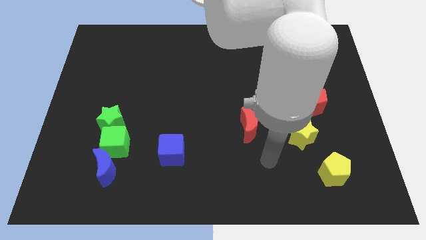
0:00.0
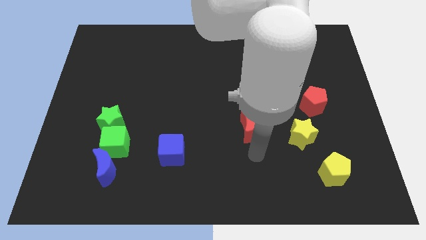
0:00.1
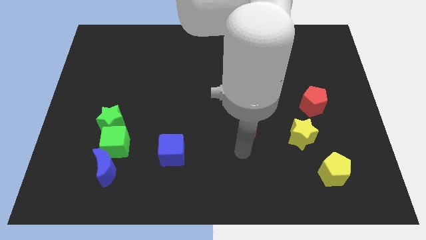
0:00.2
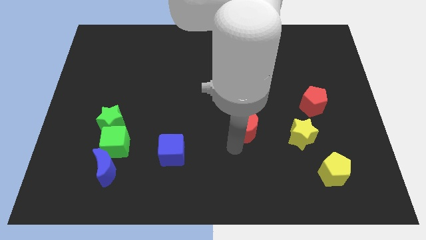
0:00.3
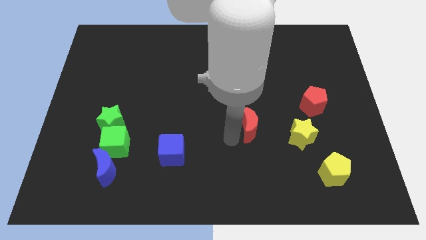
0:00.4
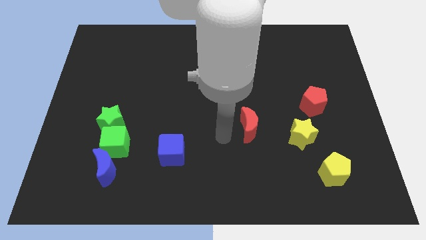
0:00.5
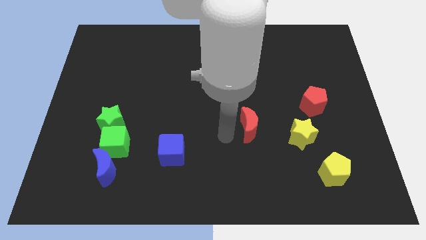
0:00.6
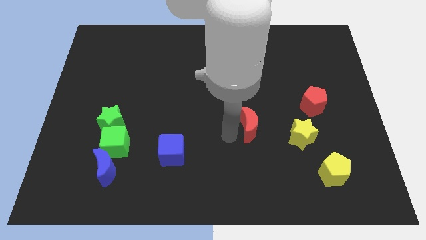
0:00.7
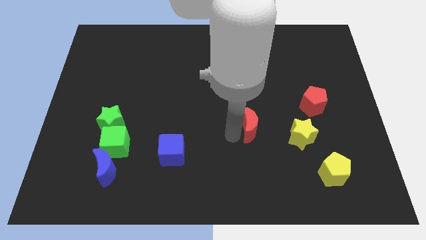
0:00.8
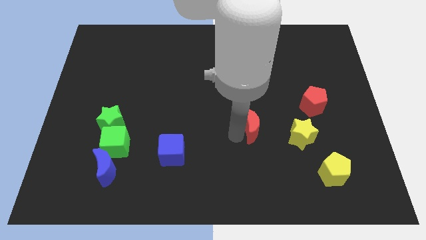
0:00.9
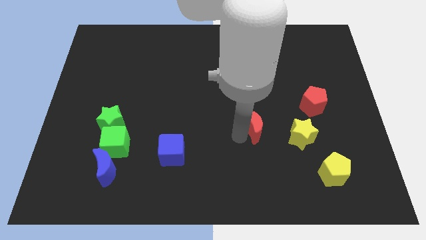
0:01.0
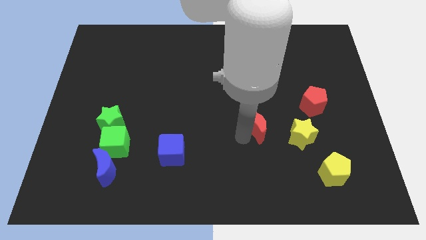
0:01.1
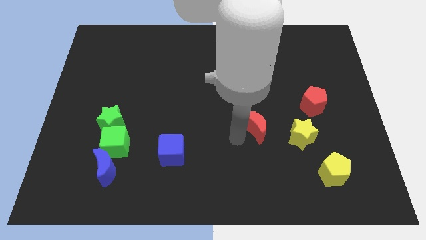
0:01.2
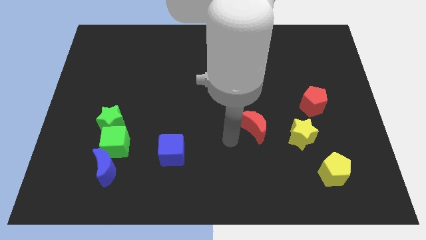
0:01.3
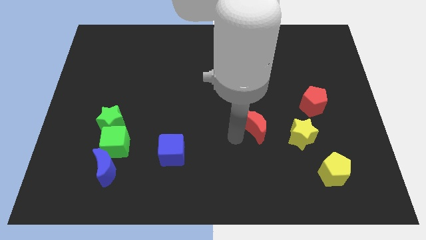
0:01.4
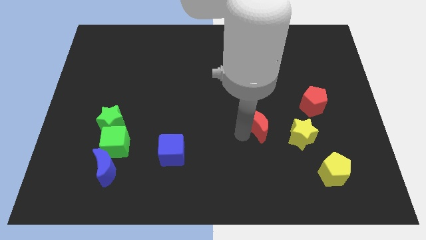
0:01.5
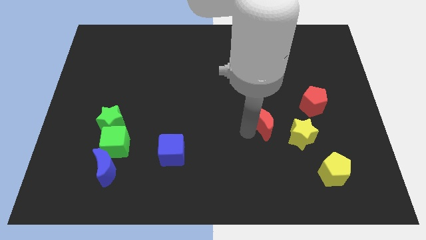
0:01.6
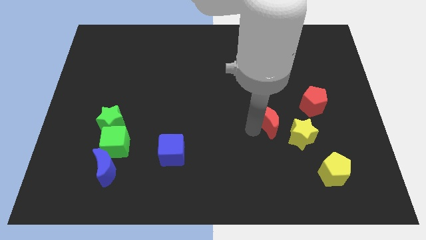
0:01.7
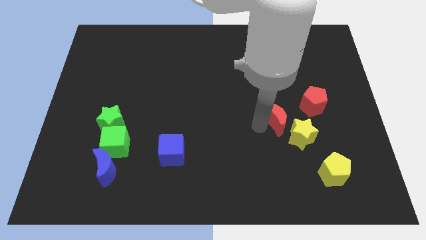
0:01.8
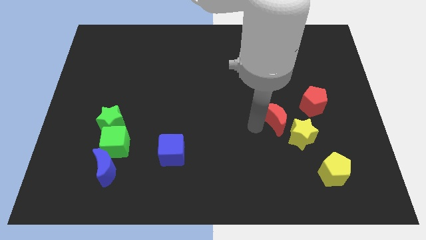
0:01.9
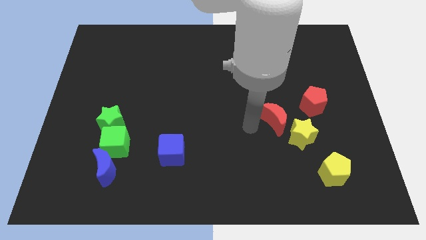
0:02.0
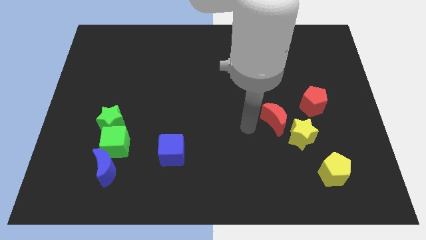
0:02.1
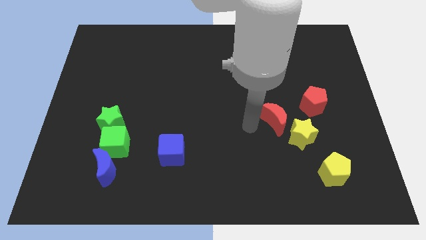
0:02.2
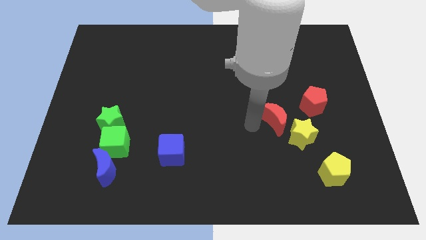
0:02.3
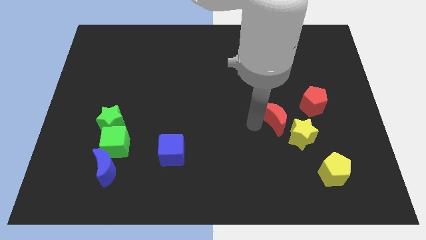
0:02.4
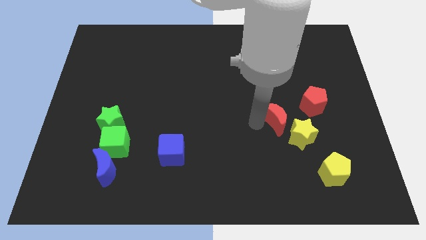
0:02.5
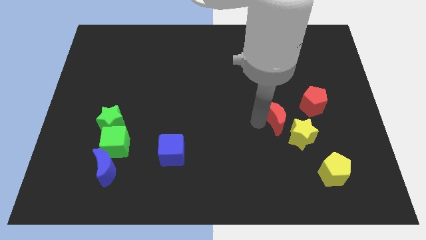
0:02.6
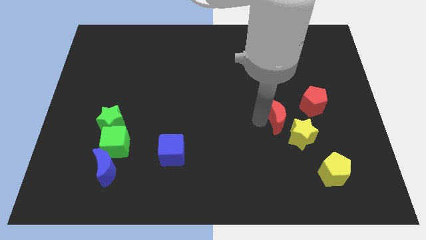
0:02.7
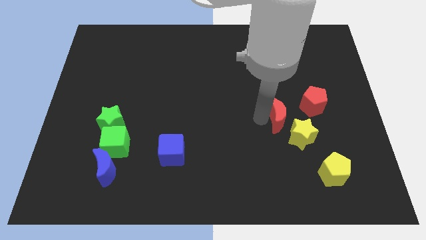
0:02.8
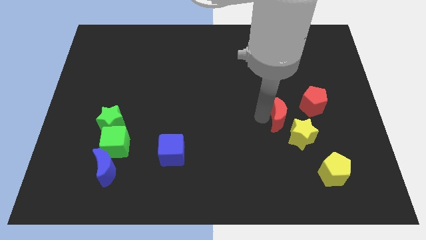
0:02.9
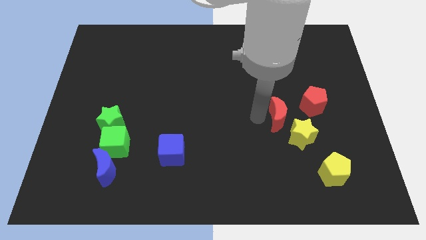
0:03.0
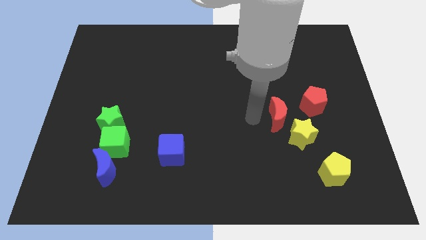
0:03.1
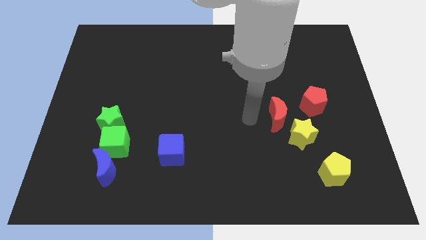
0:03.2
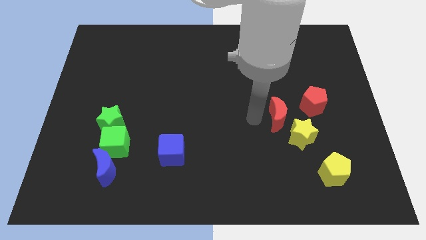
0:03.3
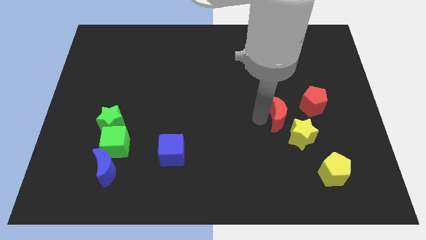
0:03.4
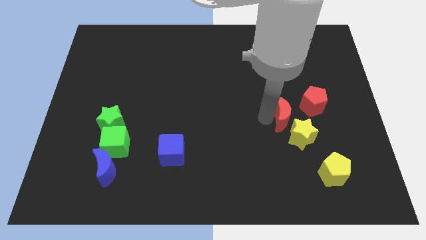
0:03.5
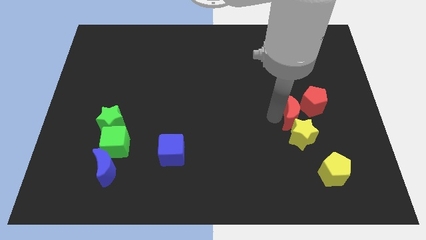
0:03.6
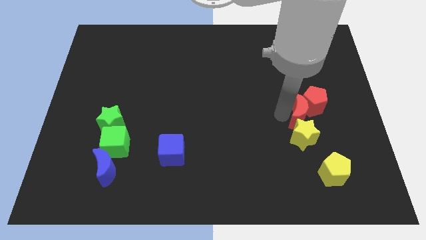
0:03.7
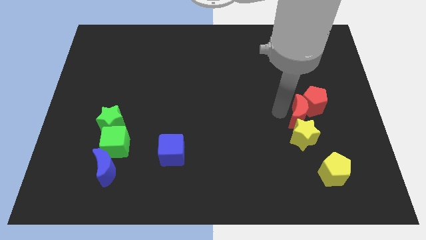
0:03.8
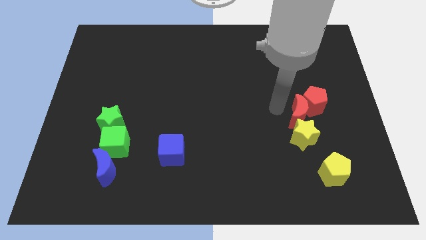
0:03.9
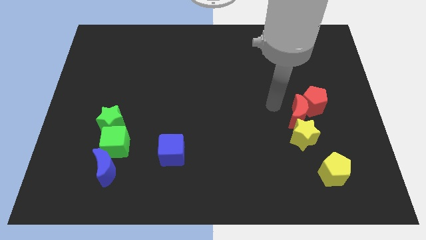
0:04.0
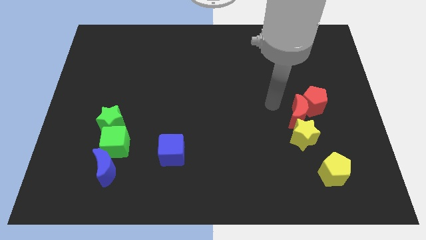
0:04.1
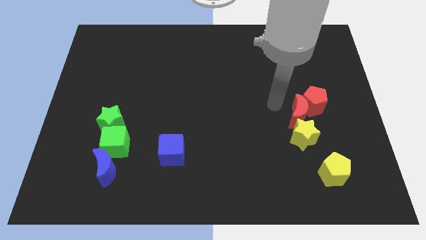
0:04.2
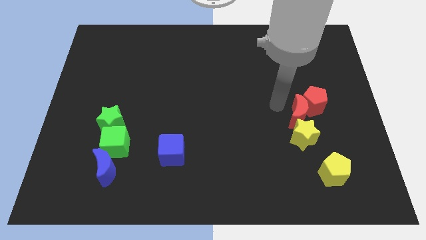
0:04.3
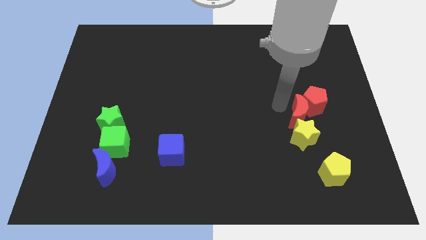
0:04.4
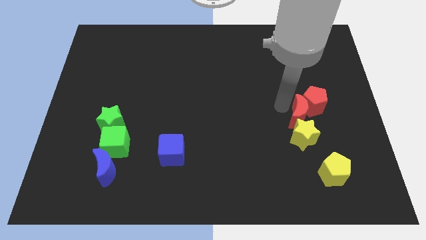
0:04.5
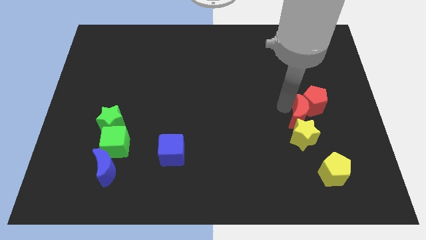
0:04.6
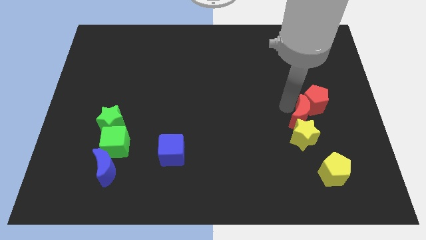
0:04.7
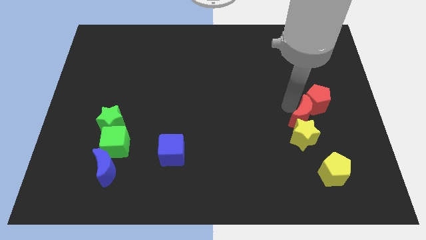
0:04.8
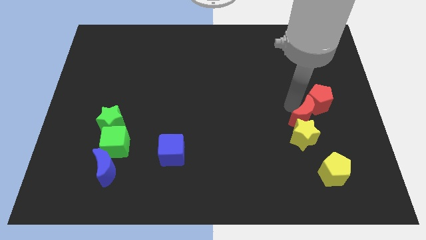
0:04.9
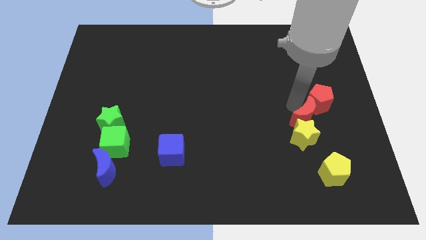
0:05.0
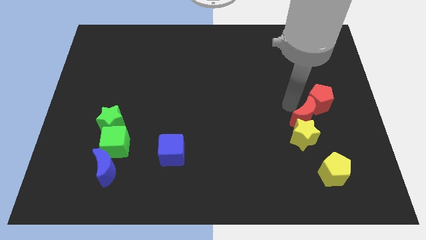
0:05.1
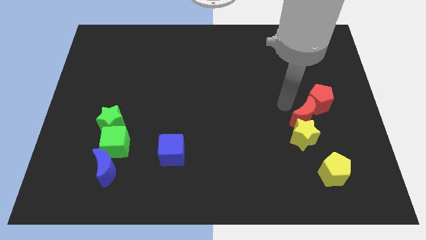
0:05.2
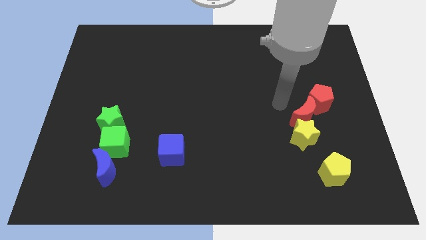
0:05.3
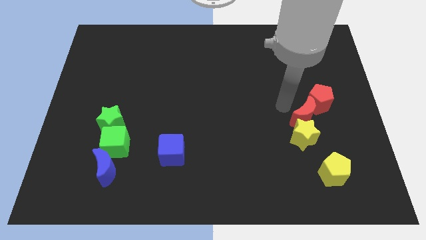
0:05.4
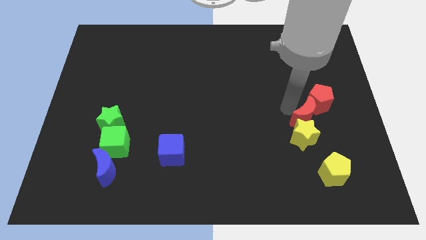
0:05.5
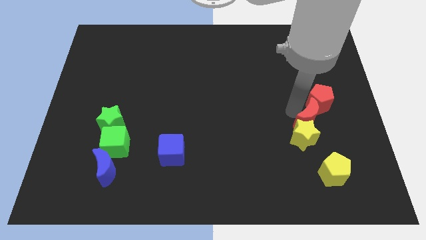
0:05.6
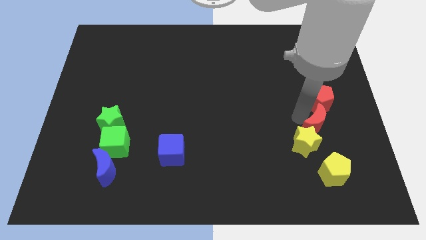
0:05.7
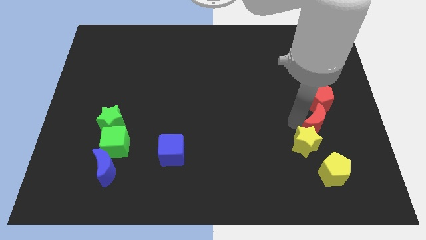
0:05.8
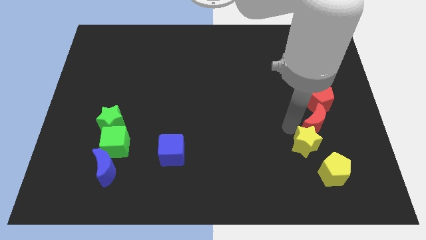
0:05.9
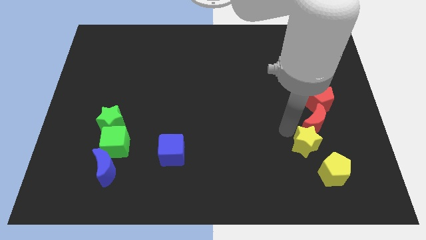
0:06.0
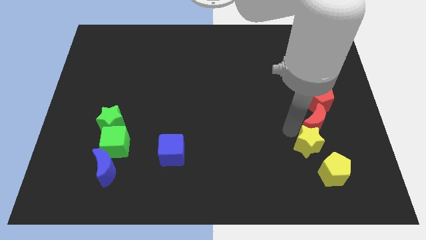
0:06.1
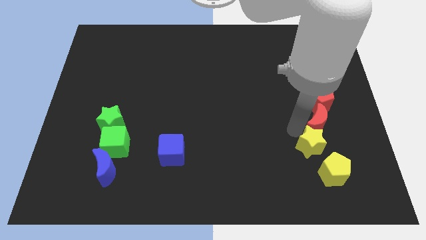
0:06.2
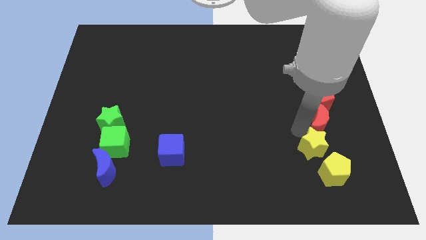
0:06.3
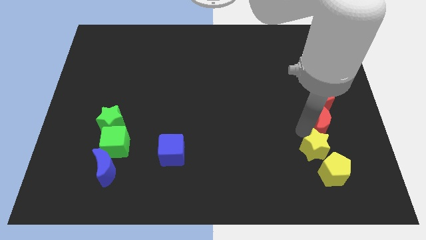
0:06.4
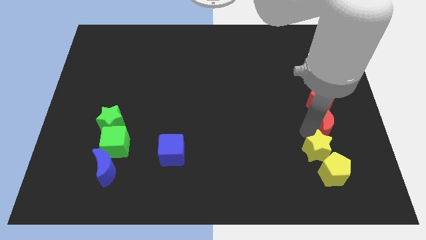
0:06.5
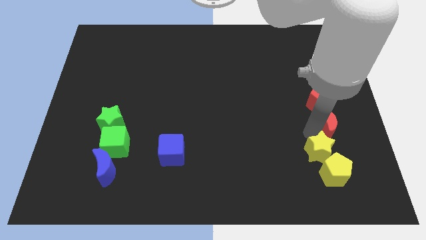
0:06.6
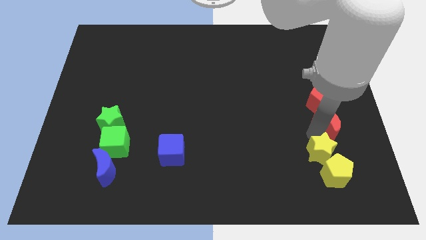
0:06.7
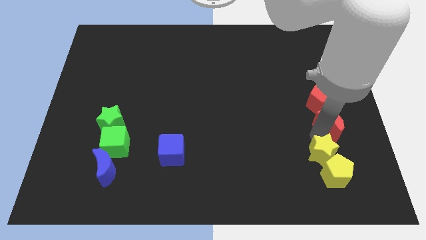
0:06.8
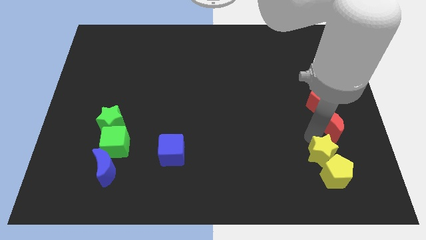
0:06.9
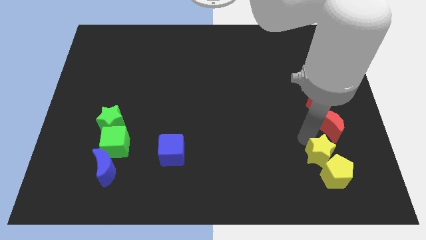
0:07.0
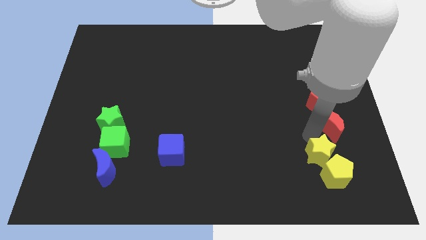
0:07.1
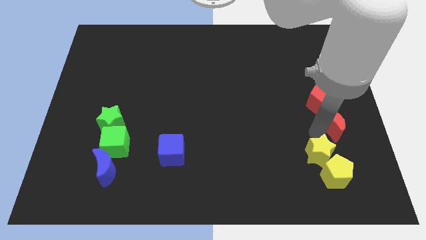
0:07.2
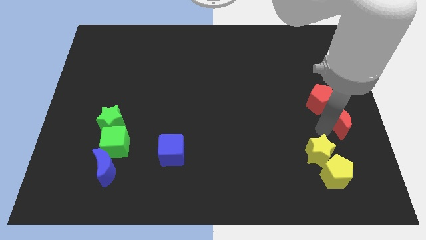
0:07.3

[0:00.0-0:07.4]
push the red moon to the right side
